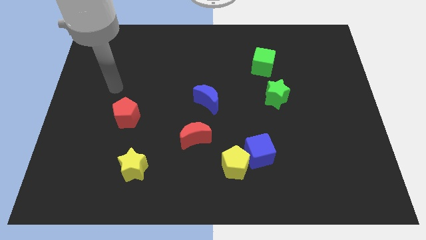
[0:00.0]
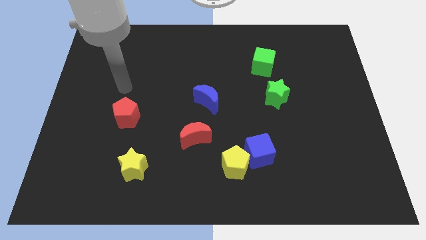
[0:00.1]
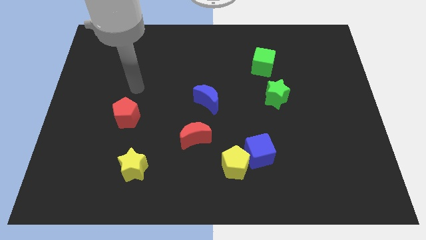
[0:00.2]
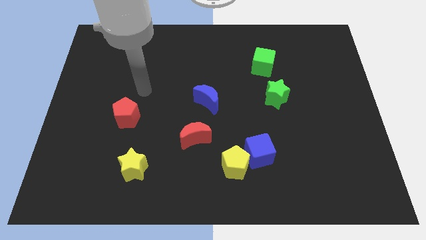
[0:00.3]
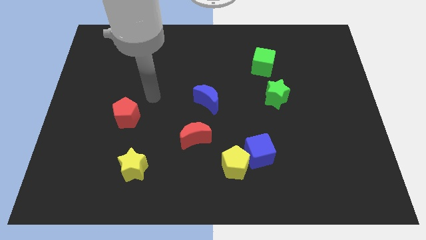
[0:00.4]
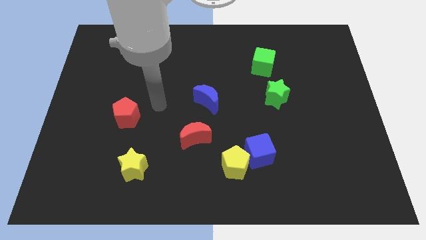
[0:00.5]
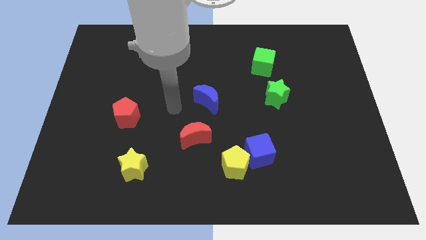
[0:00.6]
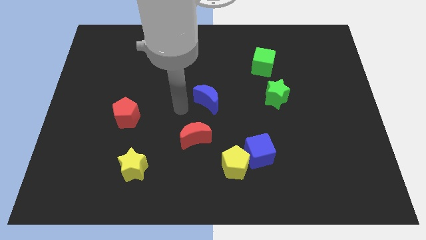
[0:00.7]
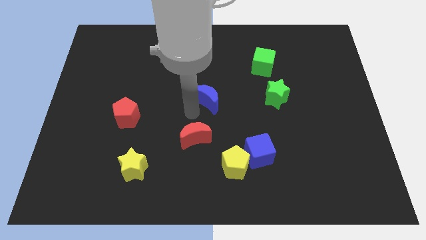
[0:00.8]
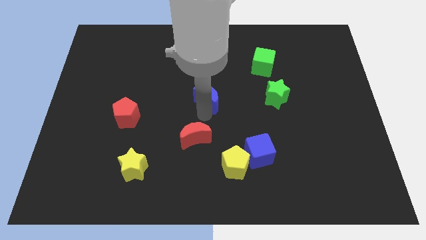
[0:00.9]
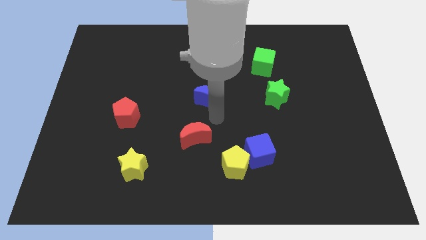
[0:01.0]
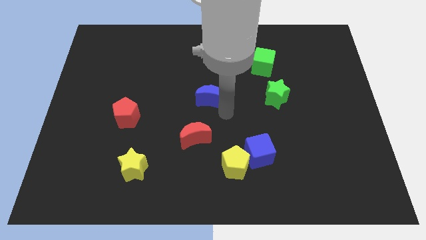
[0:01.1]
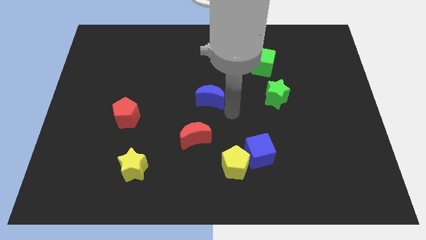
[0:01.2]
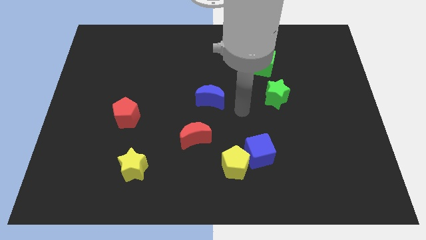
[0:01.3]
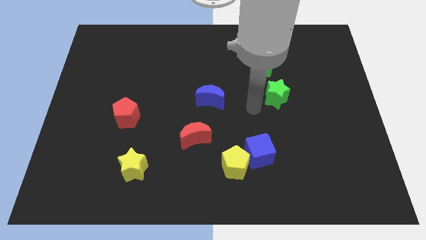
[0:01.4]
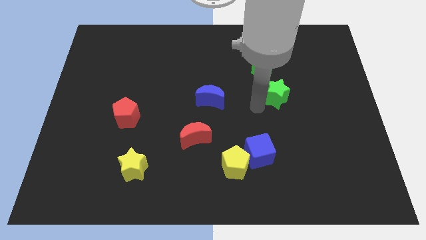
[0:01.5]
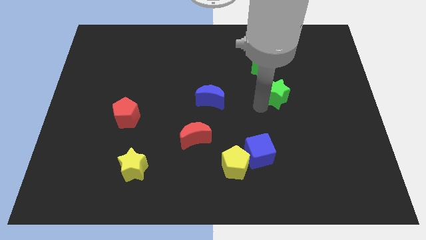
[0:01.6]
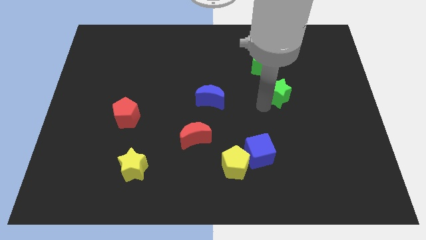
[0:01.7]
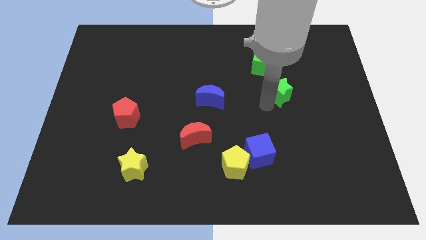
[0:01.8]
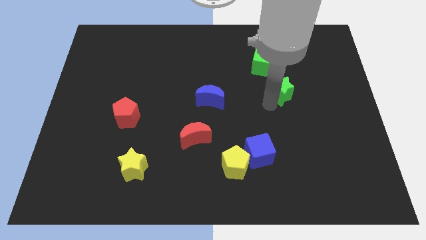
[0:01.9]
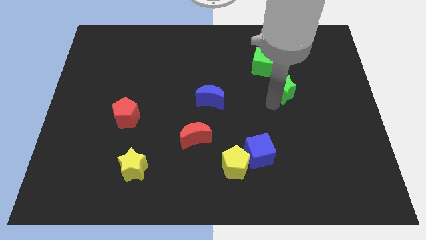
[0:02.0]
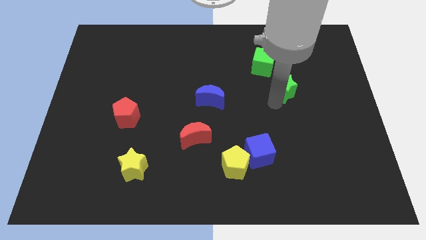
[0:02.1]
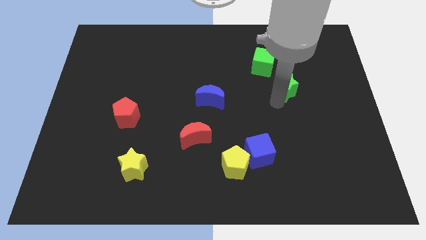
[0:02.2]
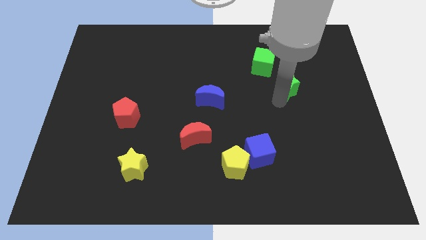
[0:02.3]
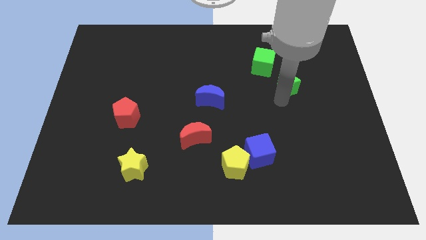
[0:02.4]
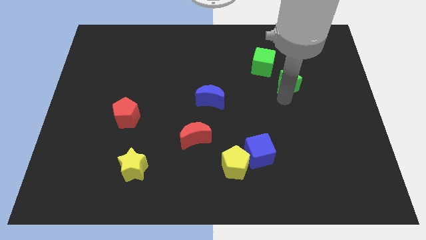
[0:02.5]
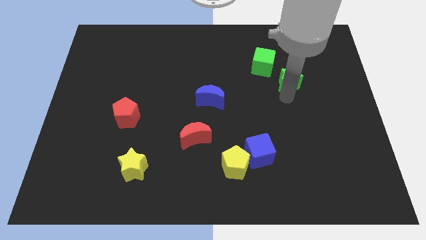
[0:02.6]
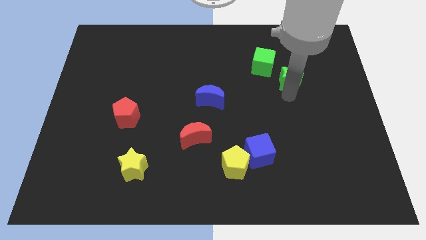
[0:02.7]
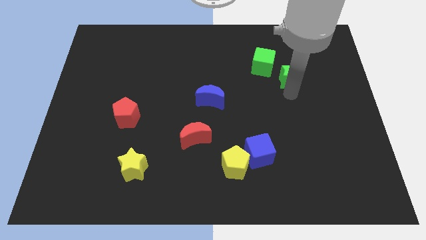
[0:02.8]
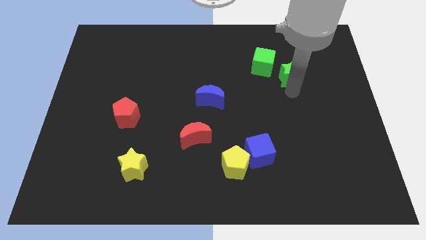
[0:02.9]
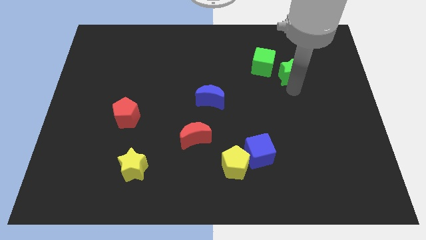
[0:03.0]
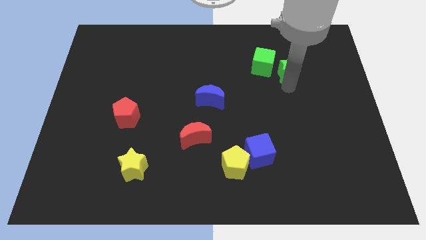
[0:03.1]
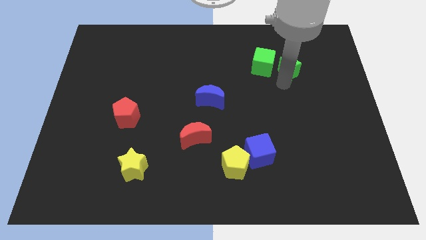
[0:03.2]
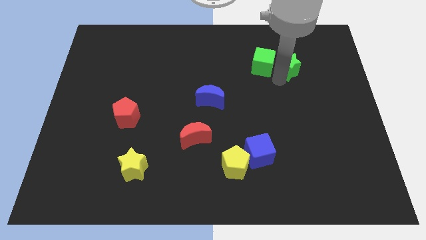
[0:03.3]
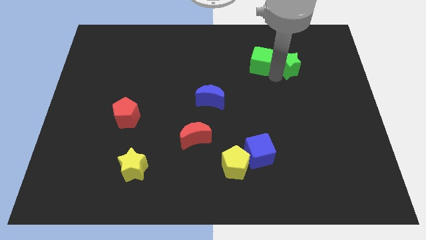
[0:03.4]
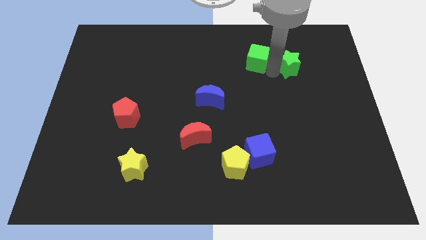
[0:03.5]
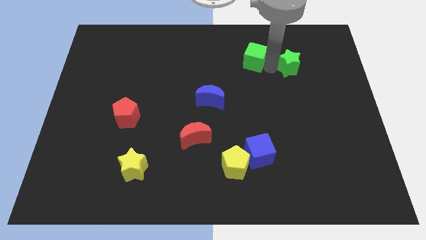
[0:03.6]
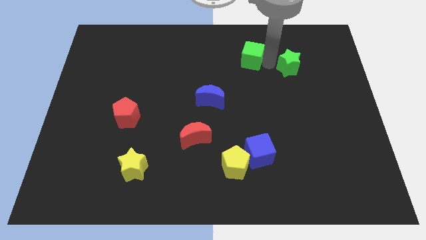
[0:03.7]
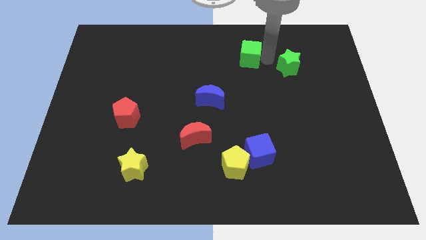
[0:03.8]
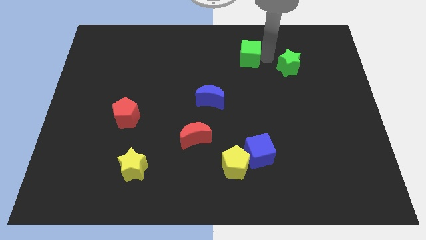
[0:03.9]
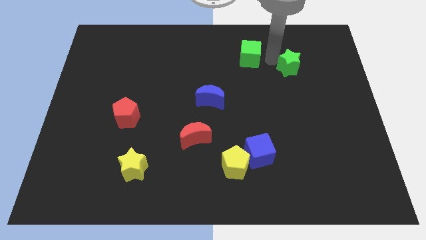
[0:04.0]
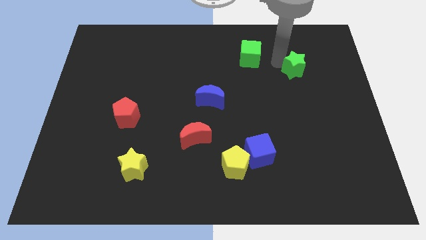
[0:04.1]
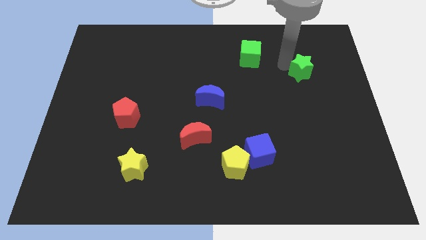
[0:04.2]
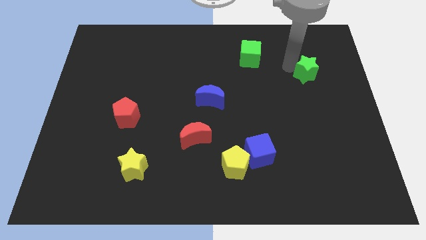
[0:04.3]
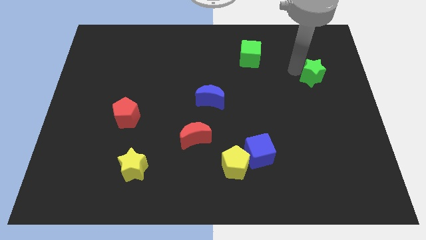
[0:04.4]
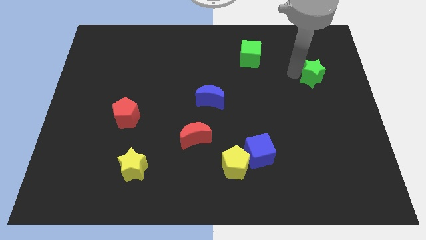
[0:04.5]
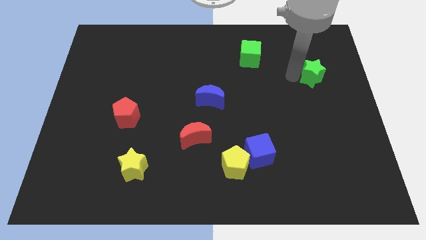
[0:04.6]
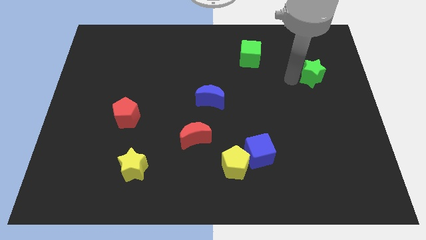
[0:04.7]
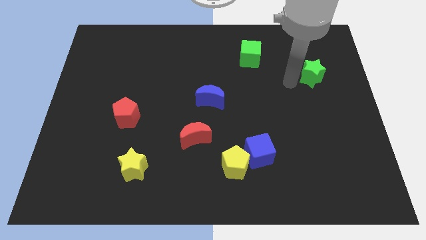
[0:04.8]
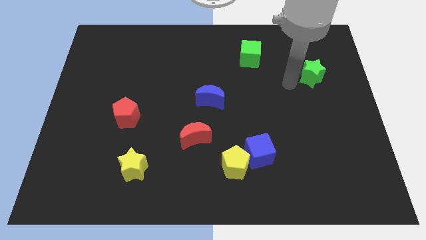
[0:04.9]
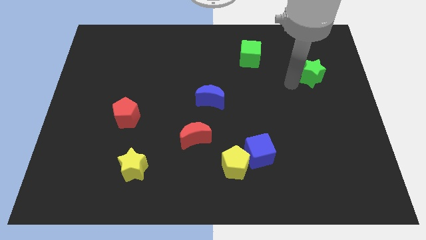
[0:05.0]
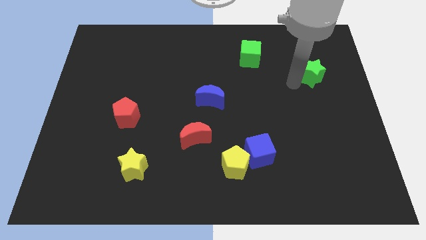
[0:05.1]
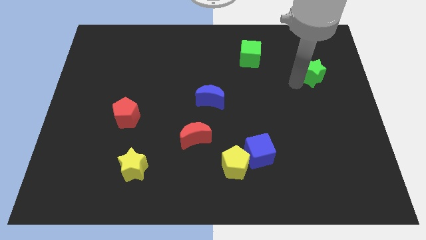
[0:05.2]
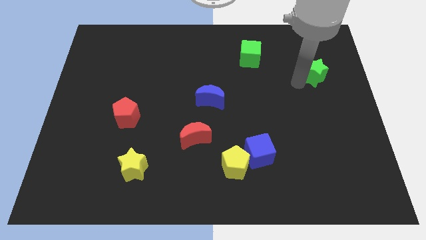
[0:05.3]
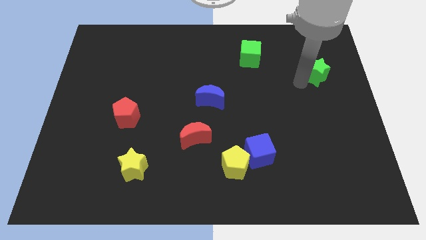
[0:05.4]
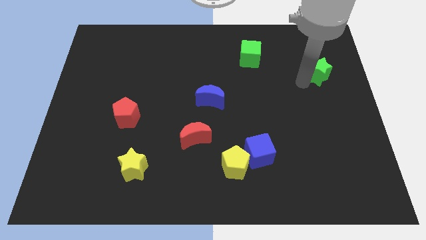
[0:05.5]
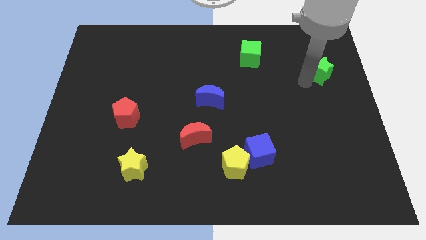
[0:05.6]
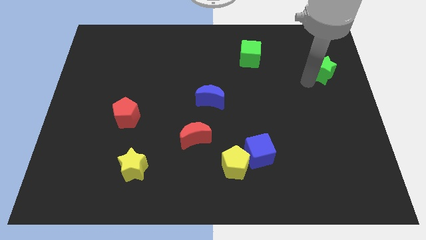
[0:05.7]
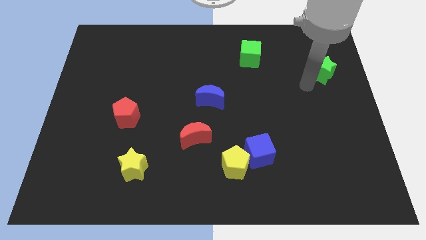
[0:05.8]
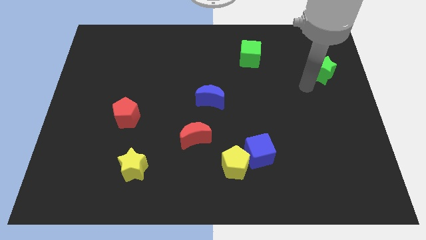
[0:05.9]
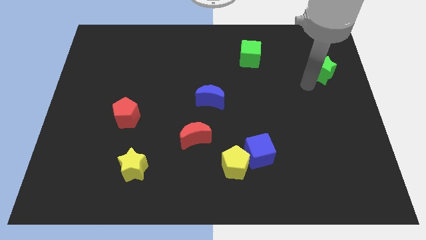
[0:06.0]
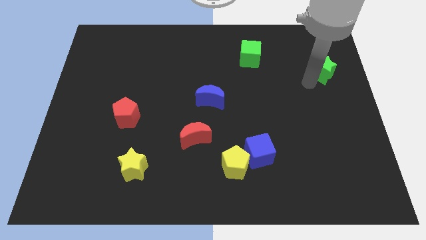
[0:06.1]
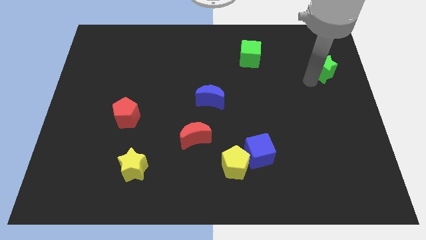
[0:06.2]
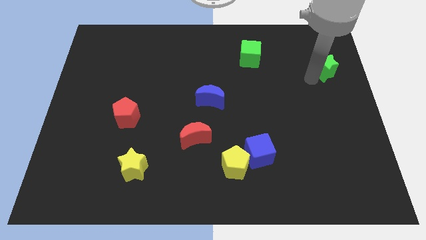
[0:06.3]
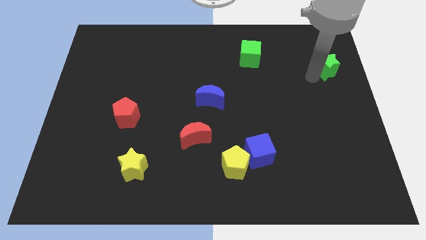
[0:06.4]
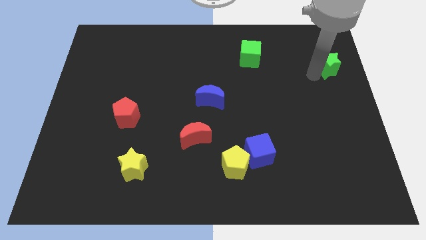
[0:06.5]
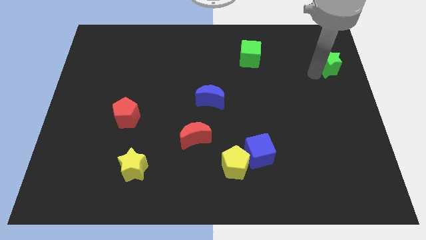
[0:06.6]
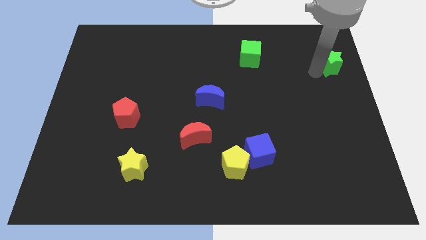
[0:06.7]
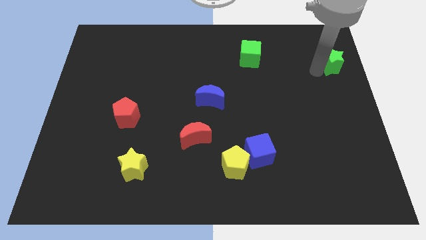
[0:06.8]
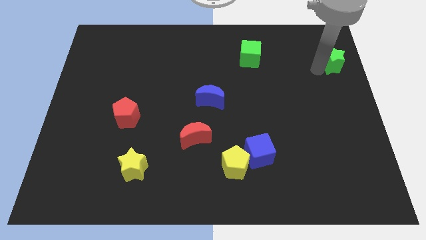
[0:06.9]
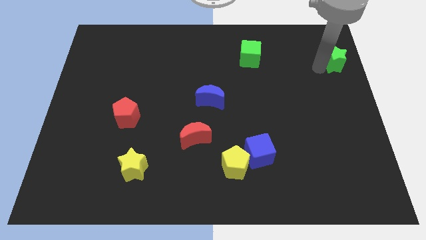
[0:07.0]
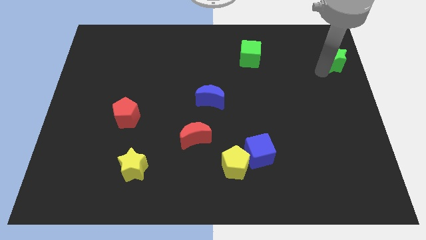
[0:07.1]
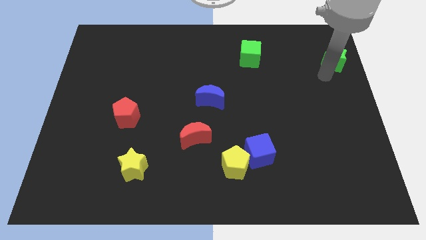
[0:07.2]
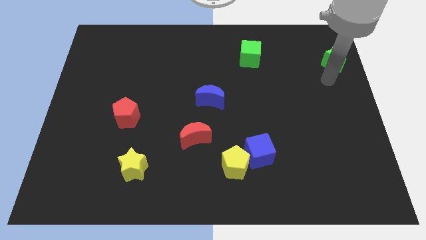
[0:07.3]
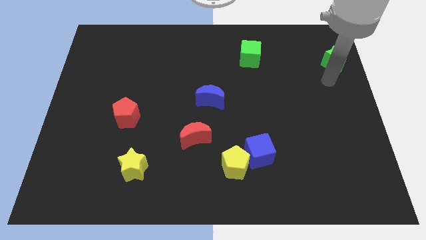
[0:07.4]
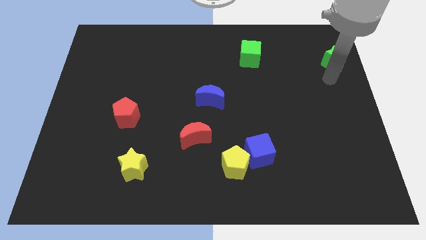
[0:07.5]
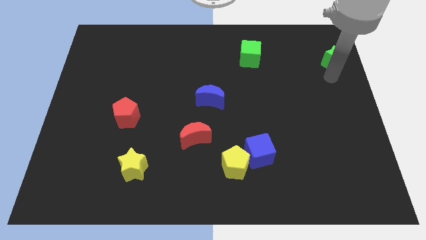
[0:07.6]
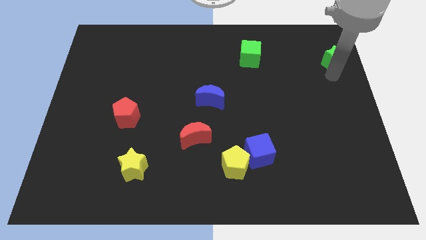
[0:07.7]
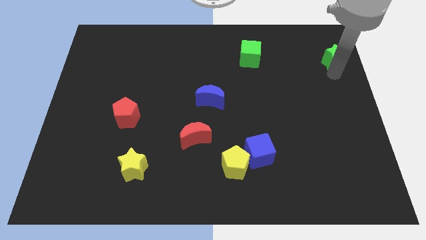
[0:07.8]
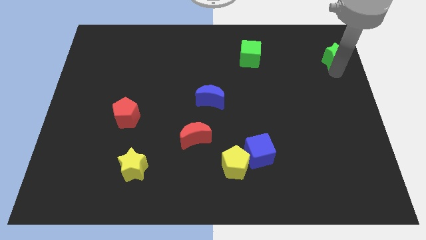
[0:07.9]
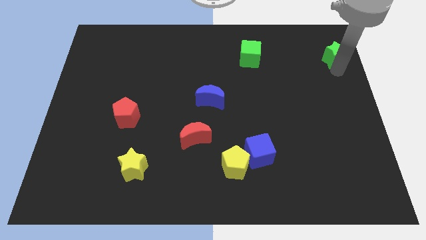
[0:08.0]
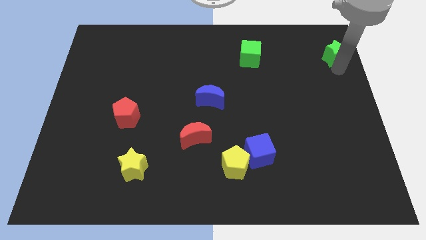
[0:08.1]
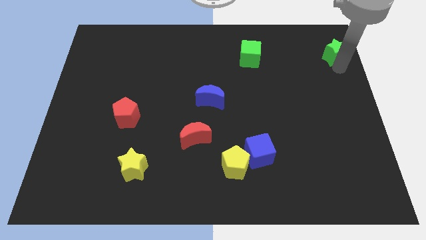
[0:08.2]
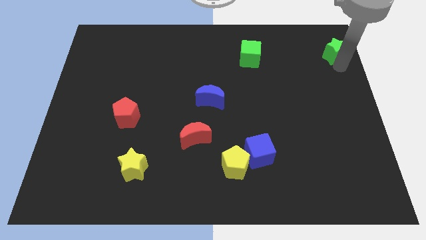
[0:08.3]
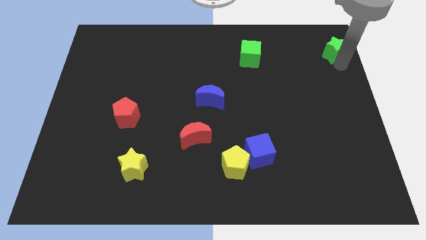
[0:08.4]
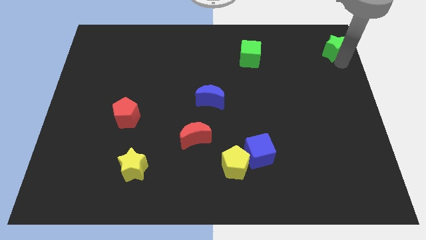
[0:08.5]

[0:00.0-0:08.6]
put the green star to the top right of the board
